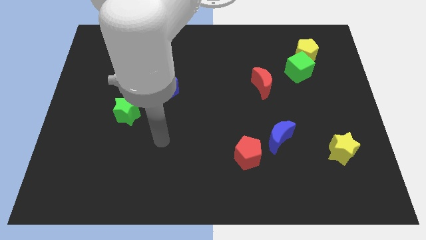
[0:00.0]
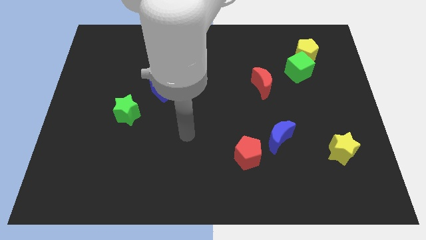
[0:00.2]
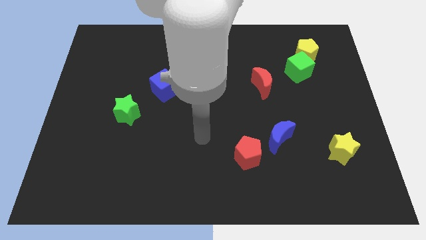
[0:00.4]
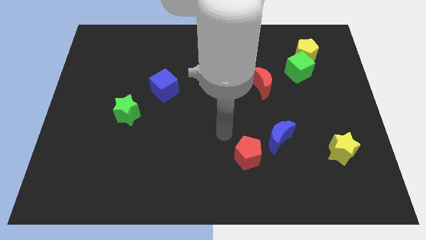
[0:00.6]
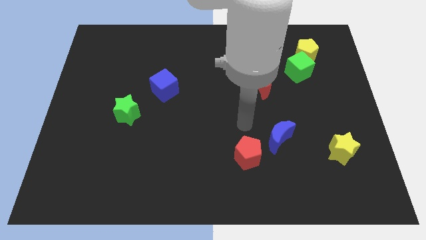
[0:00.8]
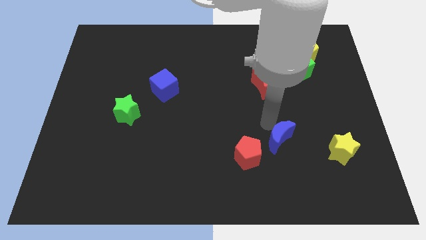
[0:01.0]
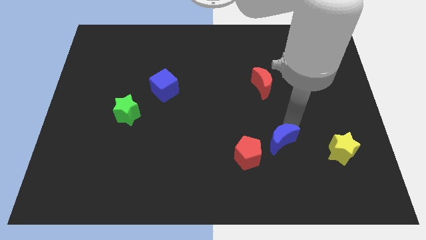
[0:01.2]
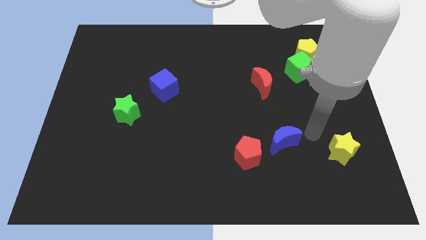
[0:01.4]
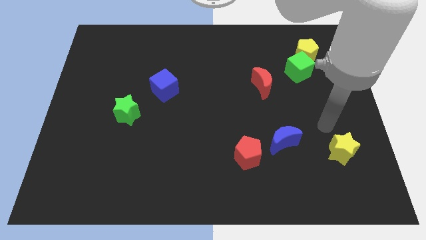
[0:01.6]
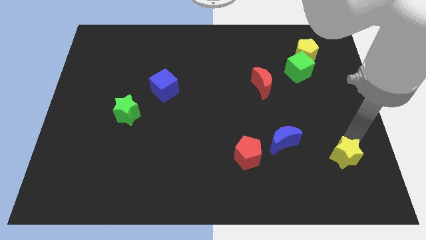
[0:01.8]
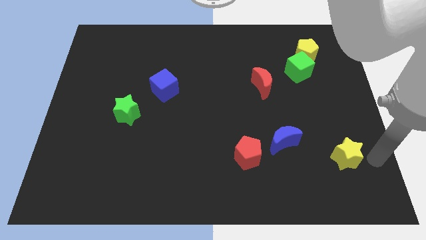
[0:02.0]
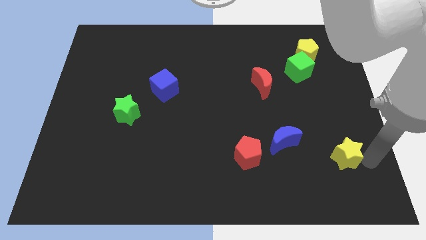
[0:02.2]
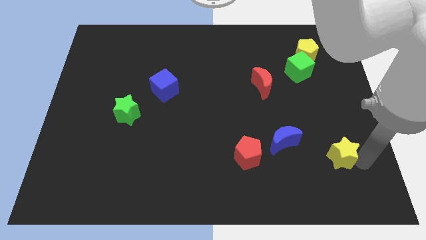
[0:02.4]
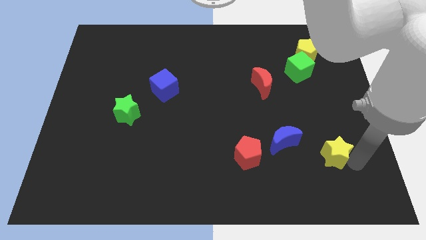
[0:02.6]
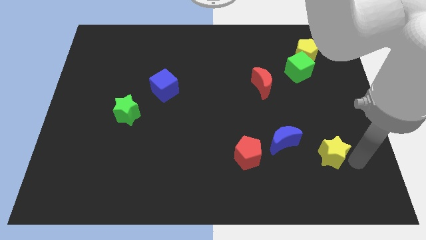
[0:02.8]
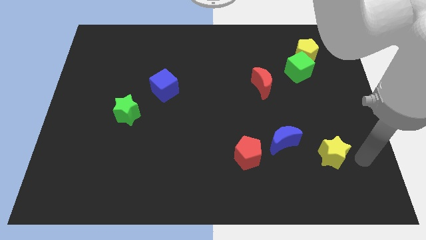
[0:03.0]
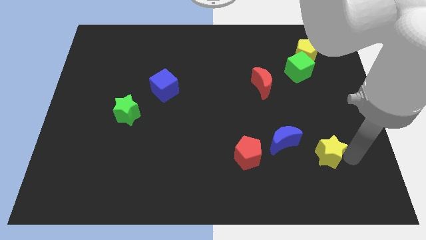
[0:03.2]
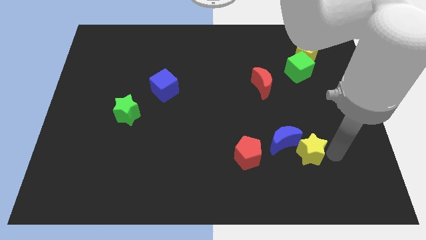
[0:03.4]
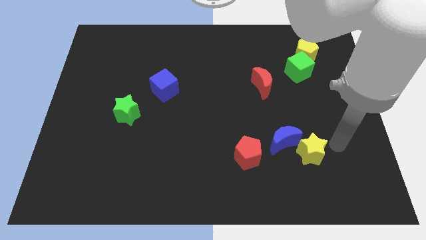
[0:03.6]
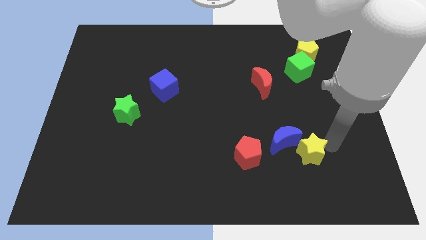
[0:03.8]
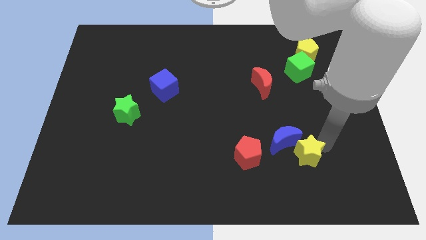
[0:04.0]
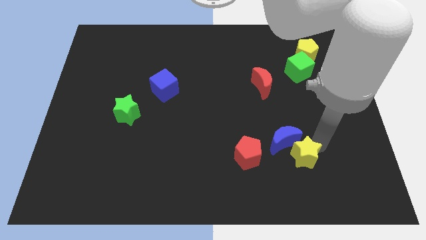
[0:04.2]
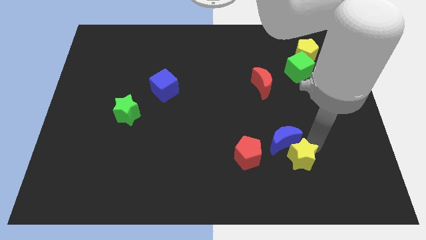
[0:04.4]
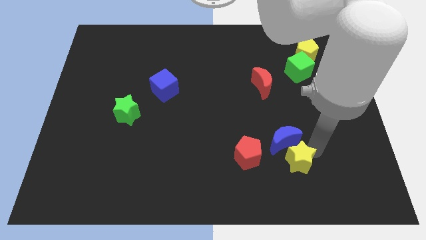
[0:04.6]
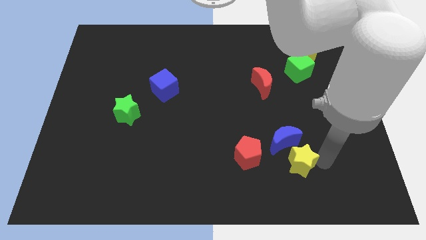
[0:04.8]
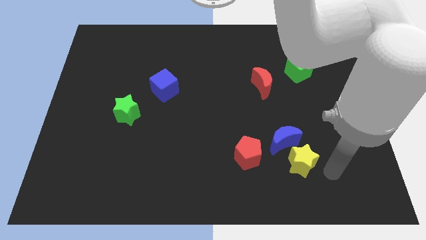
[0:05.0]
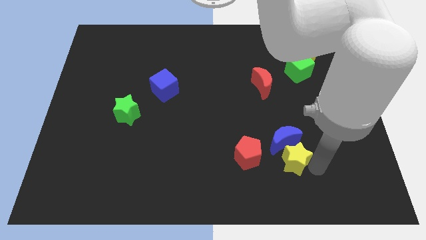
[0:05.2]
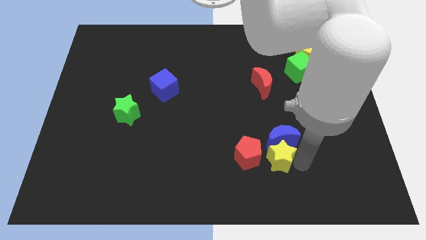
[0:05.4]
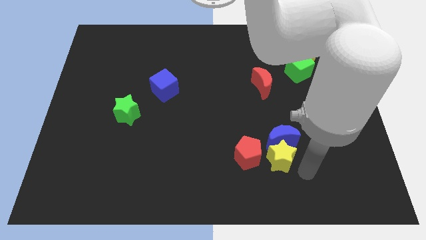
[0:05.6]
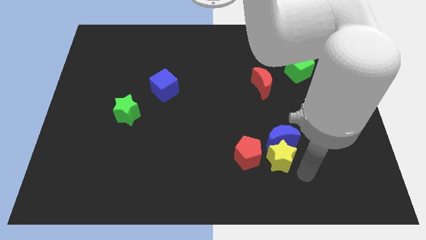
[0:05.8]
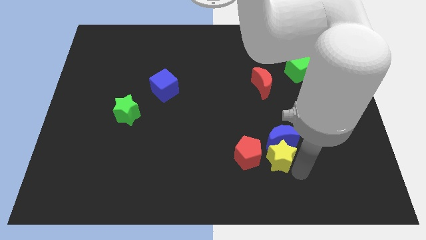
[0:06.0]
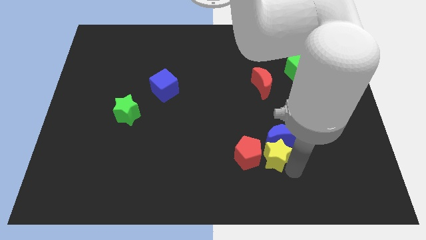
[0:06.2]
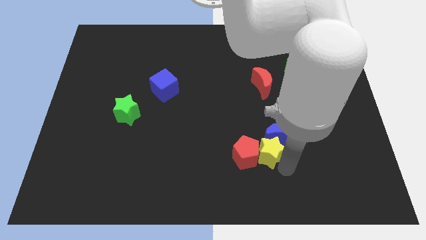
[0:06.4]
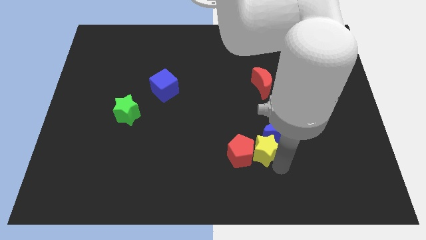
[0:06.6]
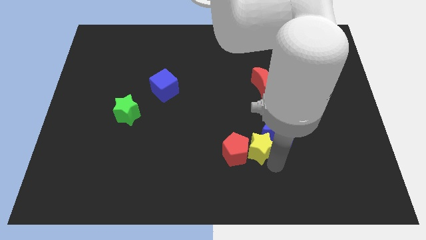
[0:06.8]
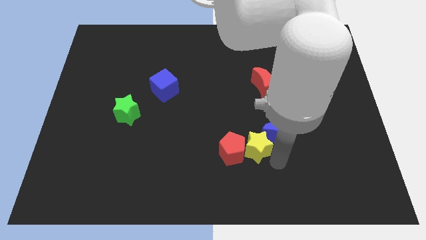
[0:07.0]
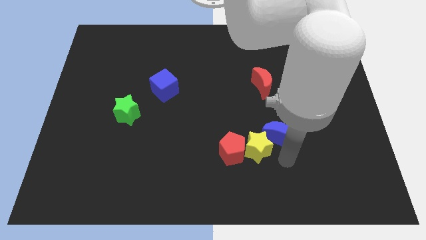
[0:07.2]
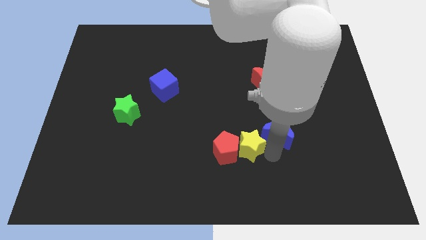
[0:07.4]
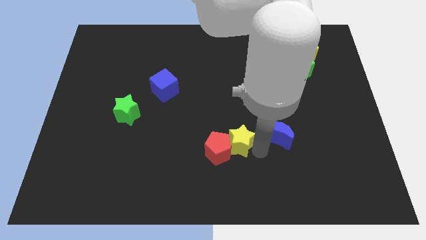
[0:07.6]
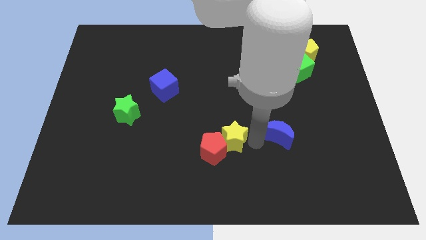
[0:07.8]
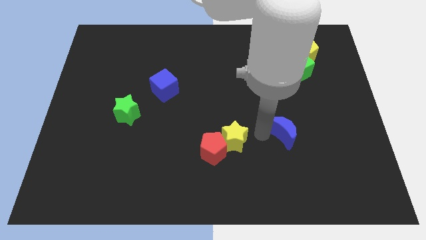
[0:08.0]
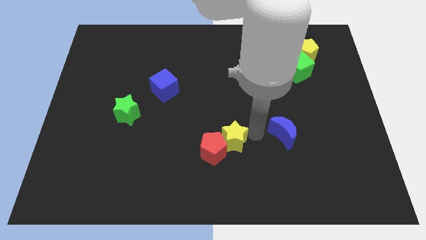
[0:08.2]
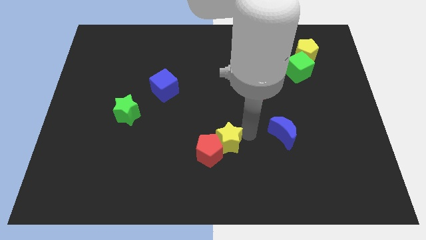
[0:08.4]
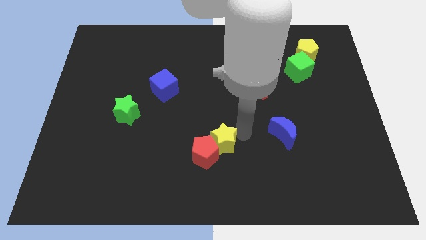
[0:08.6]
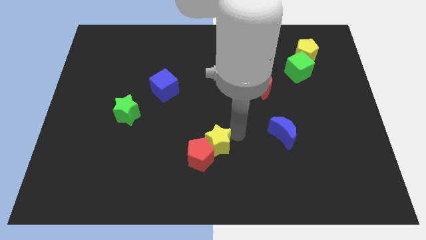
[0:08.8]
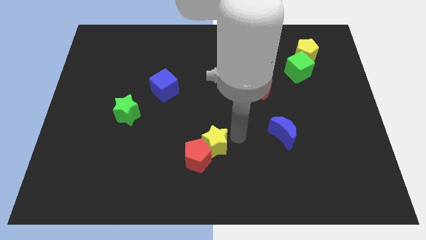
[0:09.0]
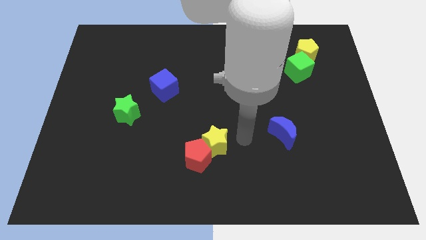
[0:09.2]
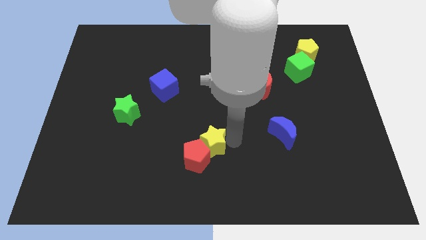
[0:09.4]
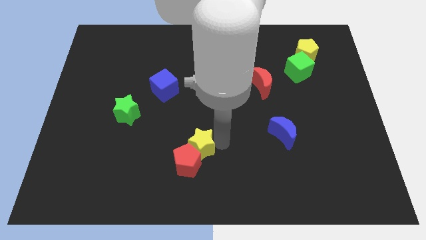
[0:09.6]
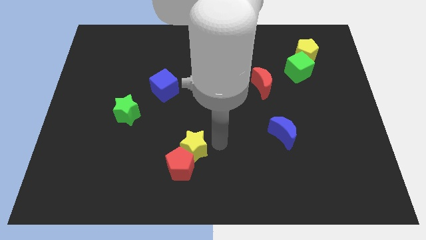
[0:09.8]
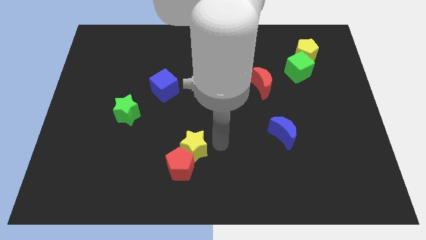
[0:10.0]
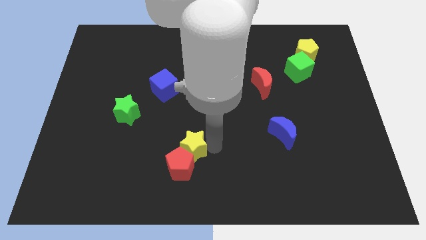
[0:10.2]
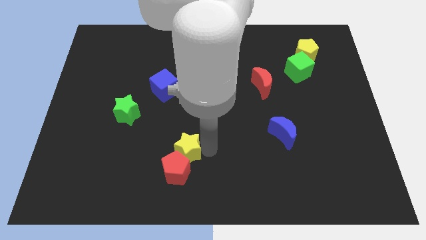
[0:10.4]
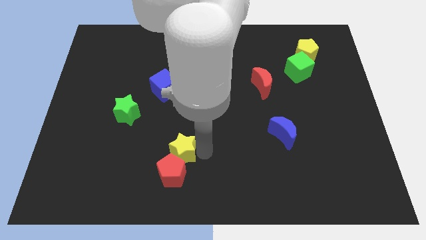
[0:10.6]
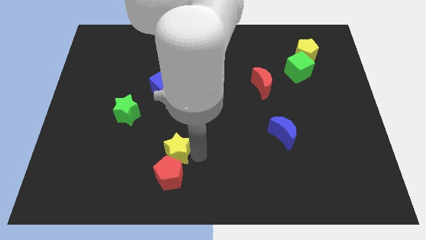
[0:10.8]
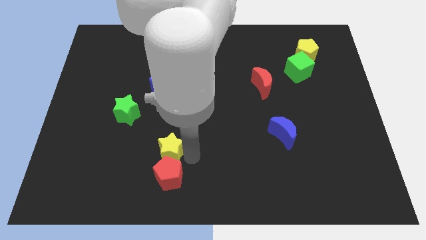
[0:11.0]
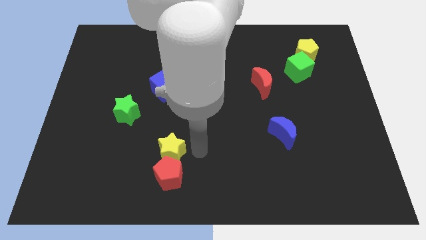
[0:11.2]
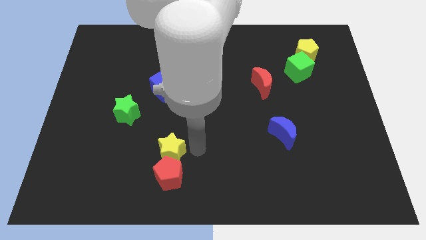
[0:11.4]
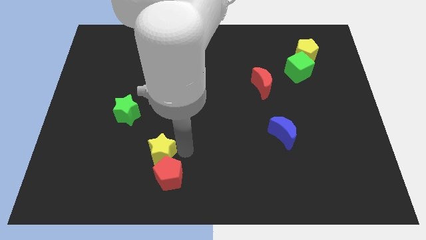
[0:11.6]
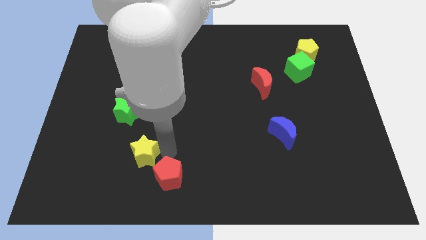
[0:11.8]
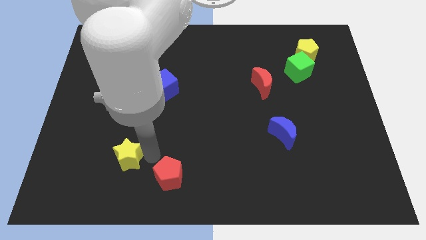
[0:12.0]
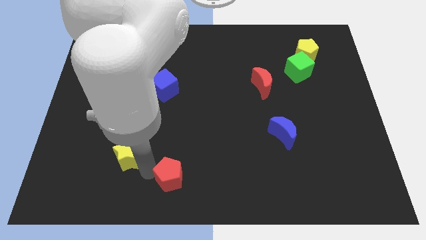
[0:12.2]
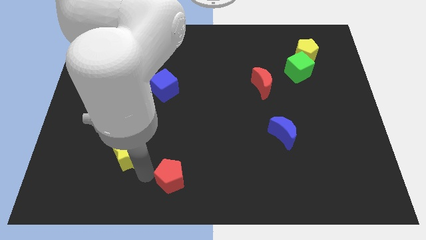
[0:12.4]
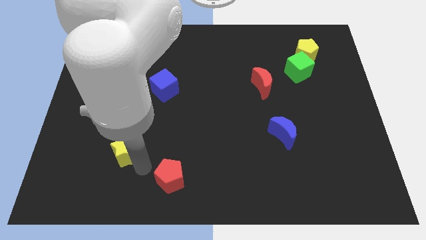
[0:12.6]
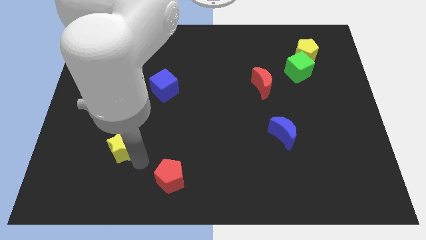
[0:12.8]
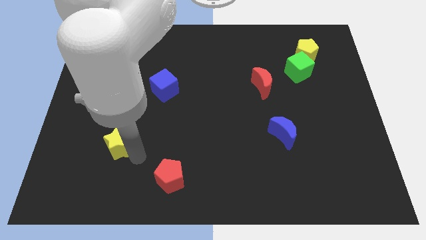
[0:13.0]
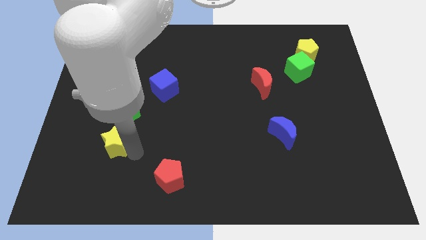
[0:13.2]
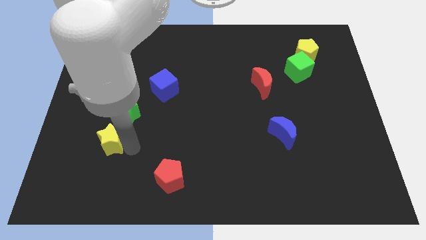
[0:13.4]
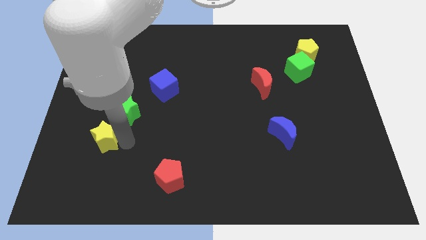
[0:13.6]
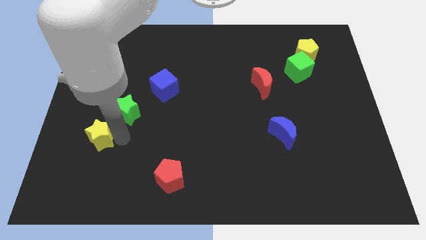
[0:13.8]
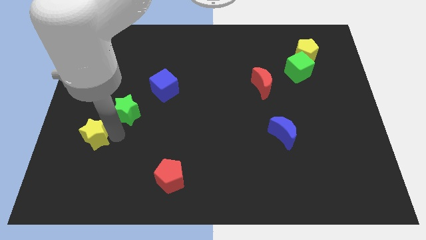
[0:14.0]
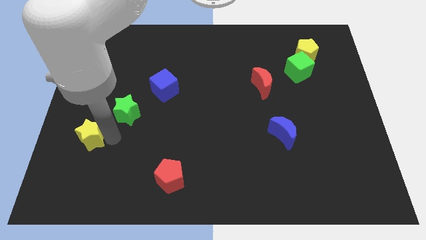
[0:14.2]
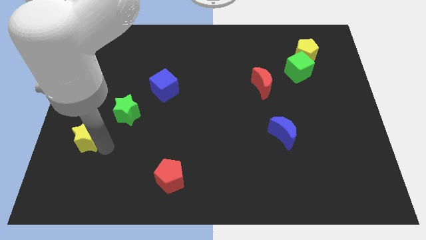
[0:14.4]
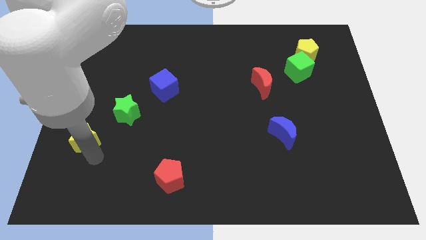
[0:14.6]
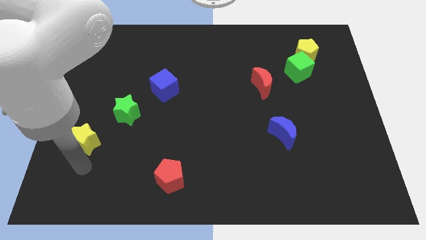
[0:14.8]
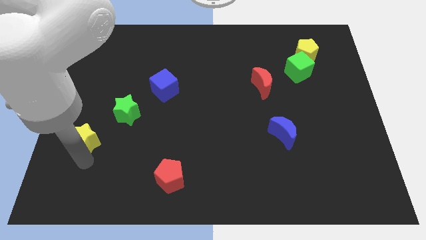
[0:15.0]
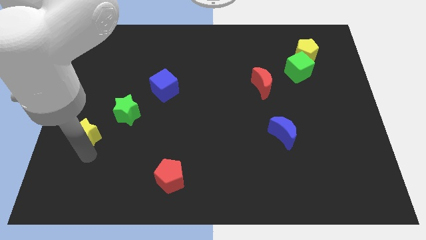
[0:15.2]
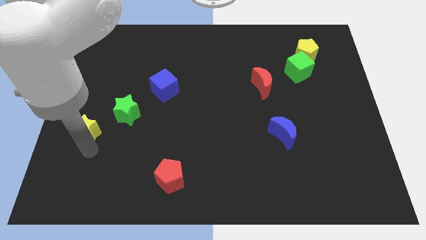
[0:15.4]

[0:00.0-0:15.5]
push the yellow star to the left side of the board
